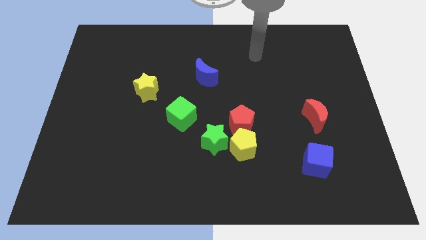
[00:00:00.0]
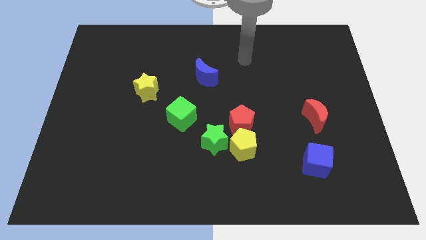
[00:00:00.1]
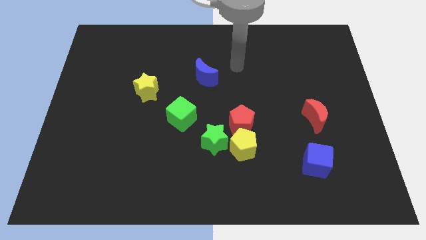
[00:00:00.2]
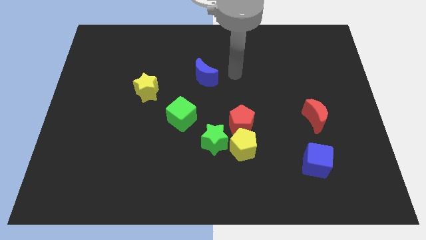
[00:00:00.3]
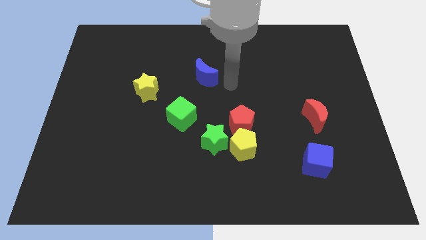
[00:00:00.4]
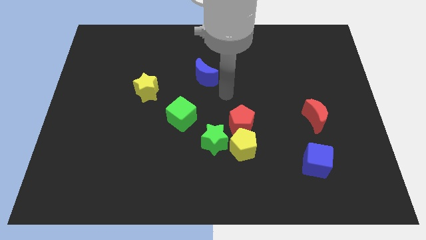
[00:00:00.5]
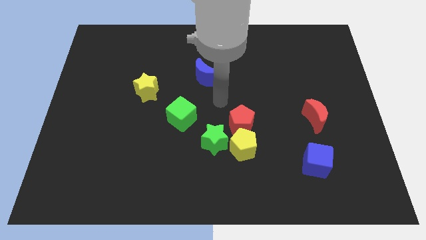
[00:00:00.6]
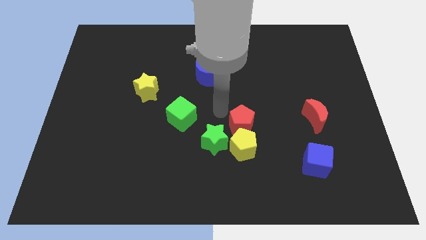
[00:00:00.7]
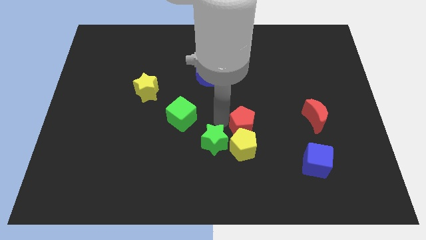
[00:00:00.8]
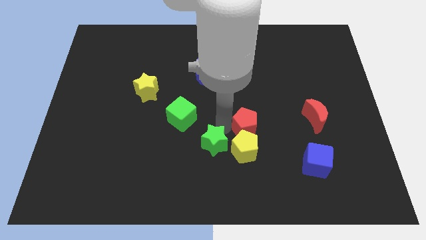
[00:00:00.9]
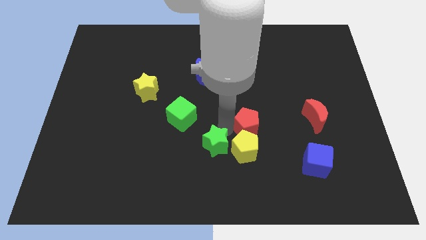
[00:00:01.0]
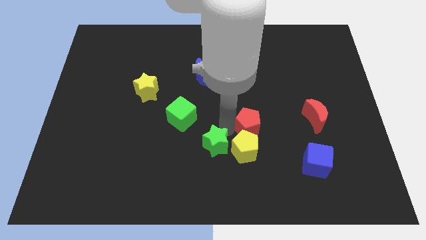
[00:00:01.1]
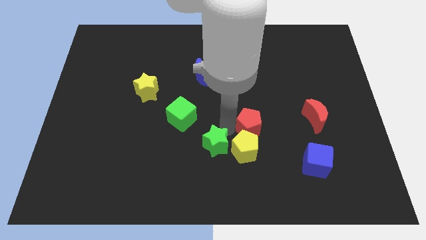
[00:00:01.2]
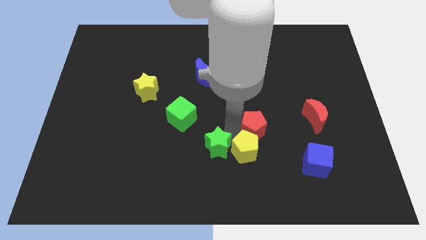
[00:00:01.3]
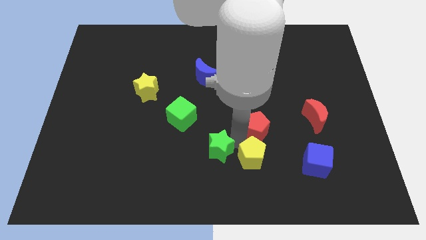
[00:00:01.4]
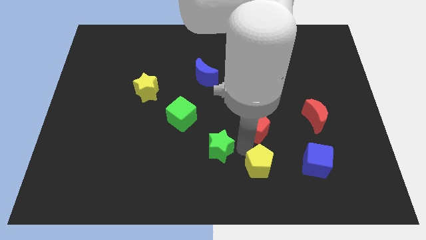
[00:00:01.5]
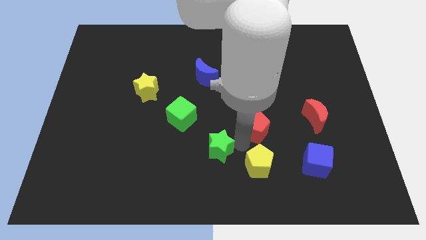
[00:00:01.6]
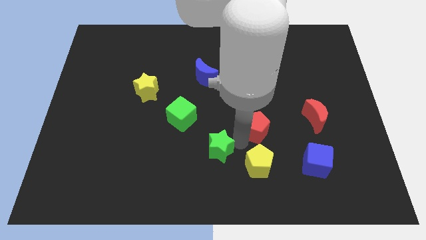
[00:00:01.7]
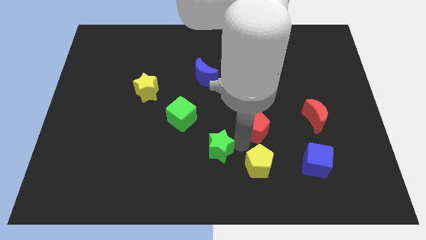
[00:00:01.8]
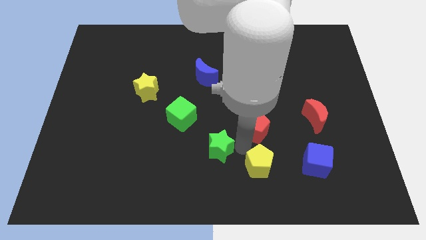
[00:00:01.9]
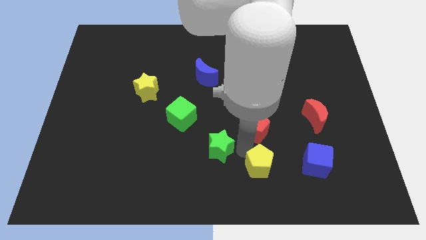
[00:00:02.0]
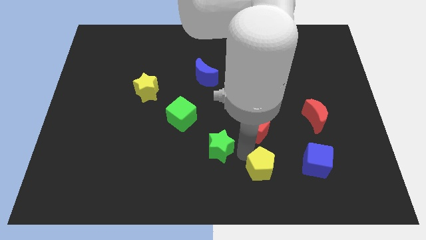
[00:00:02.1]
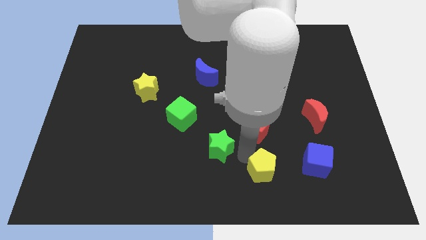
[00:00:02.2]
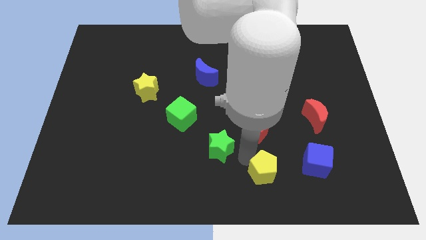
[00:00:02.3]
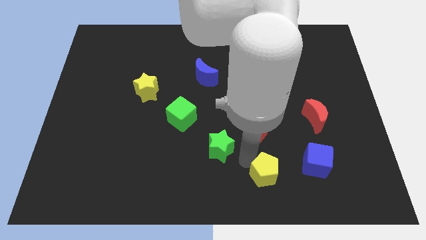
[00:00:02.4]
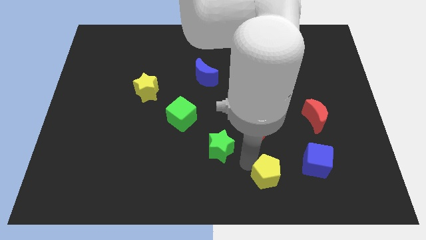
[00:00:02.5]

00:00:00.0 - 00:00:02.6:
pull the yellow pentagon apart from the green star and red pentagon

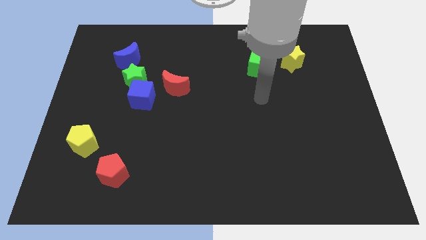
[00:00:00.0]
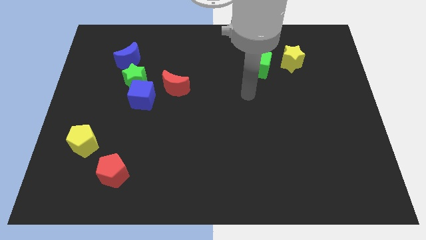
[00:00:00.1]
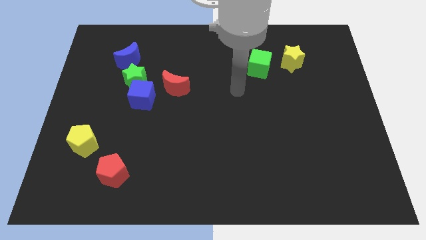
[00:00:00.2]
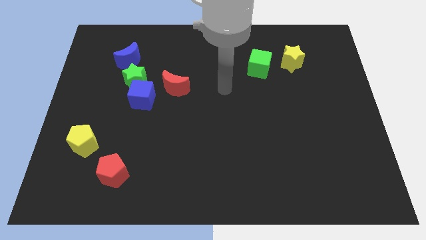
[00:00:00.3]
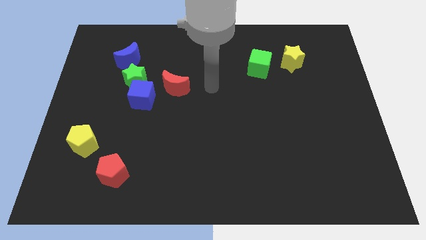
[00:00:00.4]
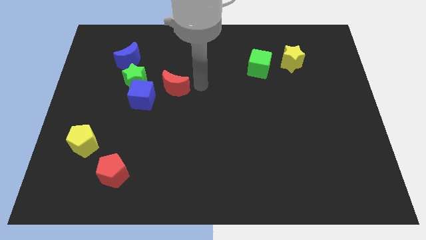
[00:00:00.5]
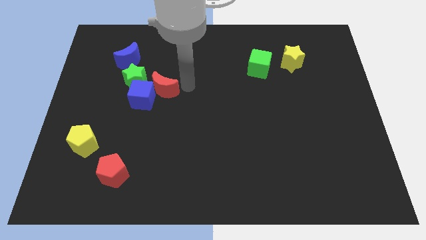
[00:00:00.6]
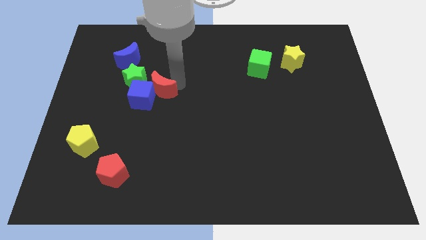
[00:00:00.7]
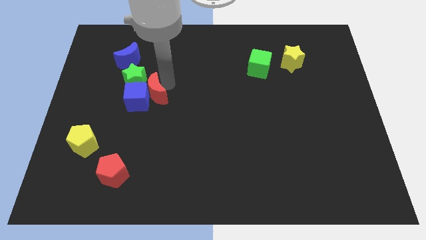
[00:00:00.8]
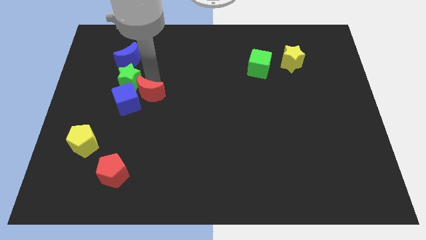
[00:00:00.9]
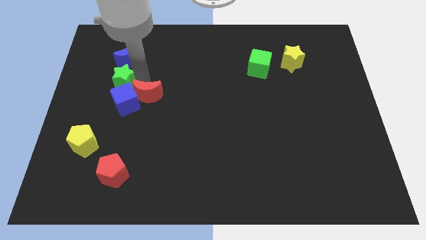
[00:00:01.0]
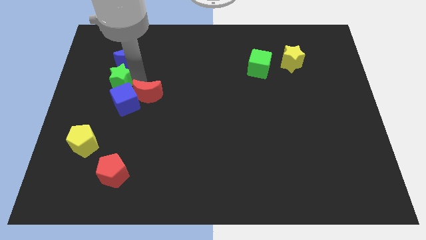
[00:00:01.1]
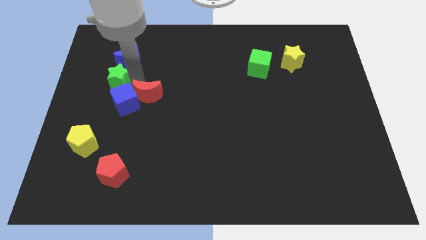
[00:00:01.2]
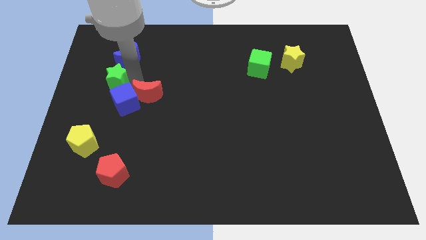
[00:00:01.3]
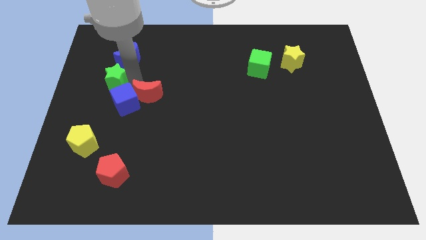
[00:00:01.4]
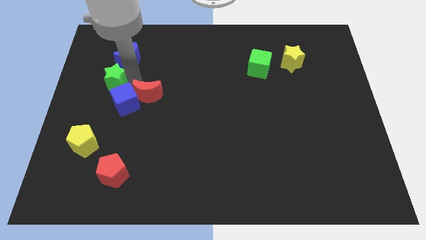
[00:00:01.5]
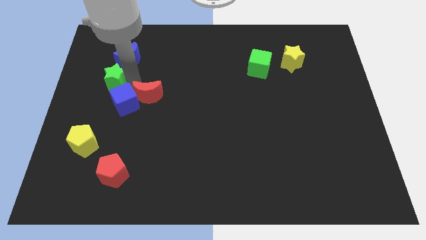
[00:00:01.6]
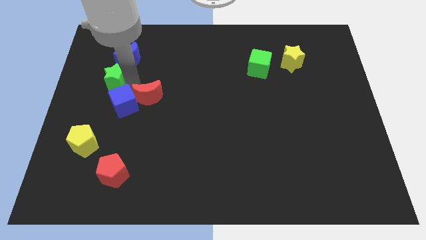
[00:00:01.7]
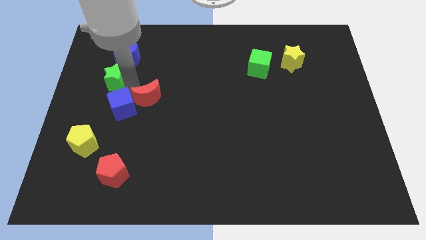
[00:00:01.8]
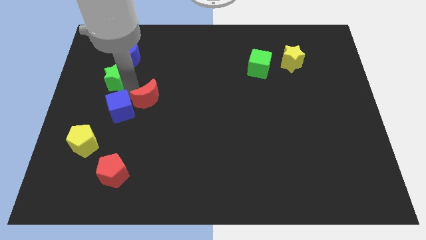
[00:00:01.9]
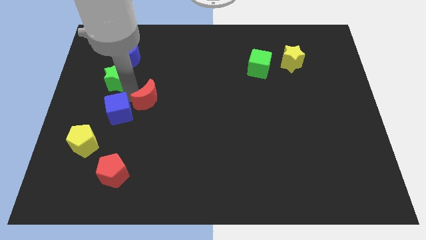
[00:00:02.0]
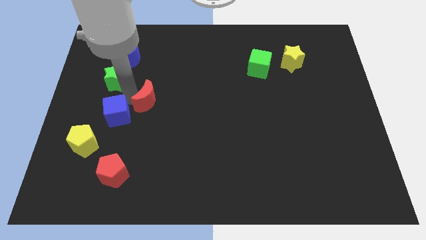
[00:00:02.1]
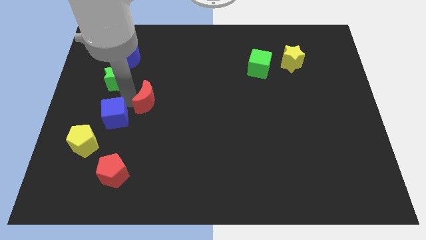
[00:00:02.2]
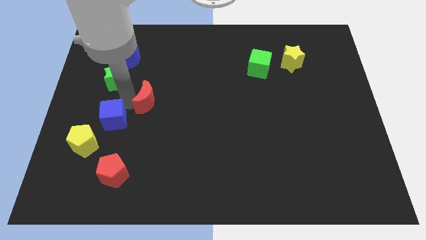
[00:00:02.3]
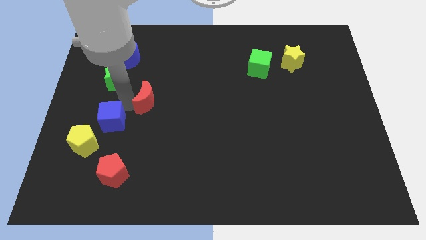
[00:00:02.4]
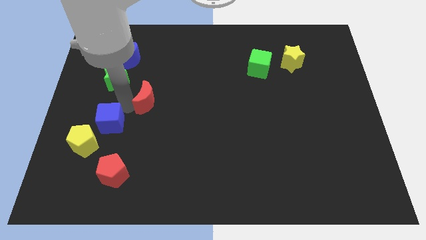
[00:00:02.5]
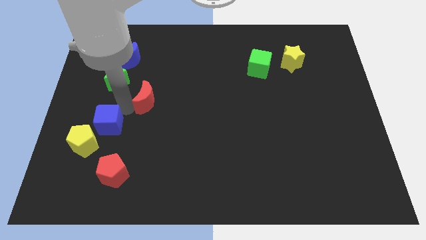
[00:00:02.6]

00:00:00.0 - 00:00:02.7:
move the blue cube away from the green star and red moon

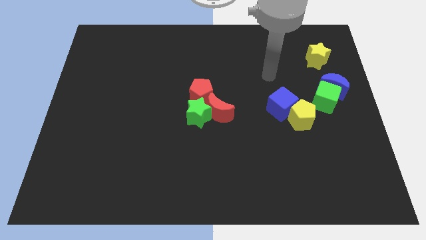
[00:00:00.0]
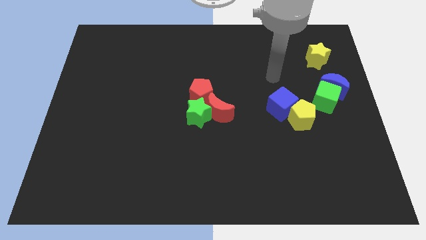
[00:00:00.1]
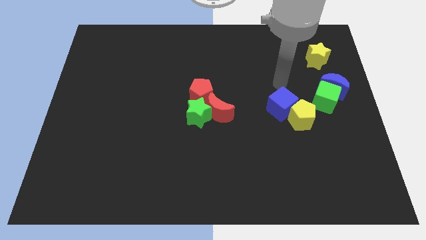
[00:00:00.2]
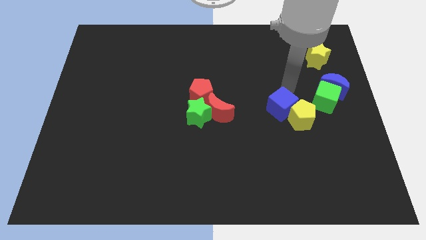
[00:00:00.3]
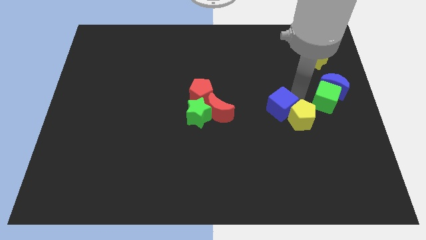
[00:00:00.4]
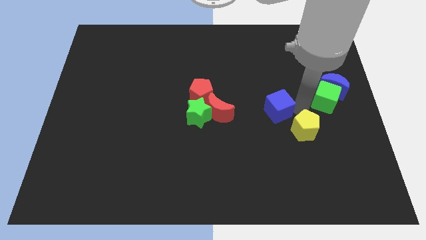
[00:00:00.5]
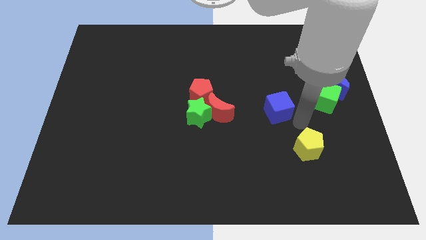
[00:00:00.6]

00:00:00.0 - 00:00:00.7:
separate the blue cube from the yellow pentagon

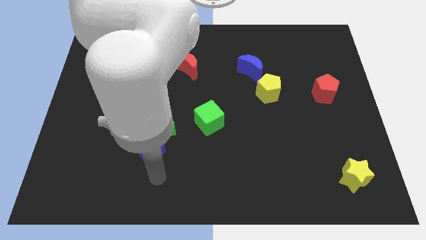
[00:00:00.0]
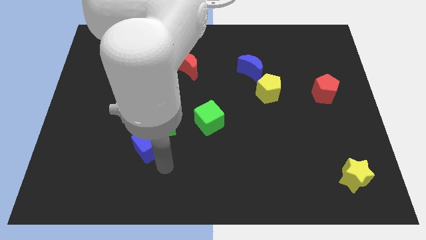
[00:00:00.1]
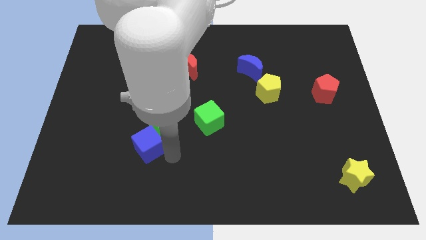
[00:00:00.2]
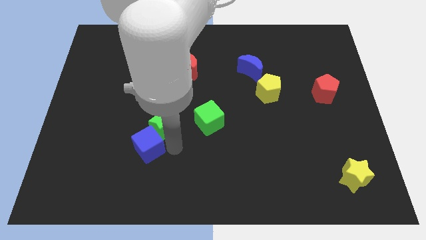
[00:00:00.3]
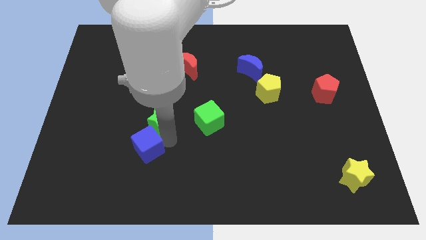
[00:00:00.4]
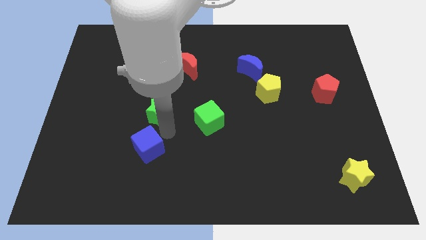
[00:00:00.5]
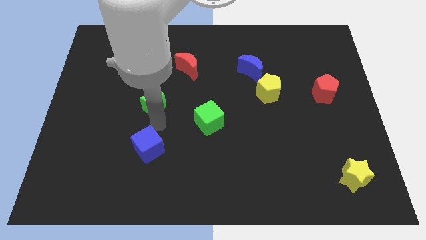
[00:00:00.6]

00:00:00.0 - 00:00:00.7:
pull the blue cube apart from the green star

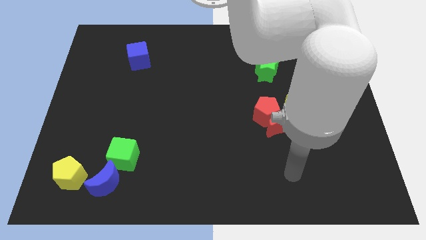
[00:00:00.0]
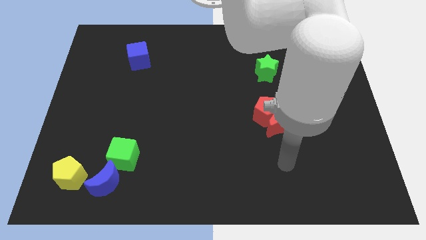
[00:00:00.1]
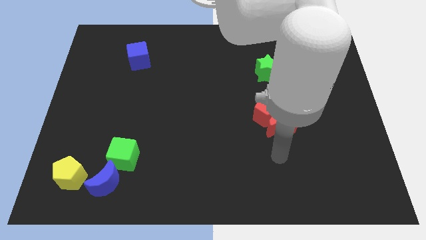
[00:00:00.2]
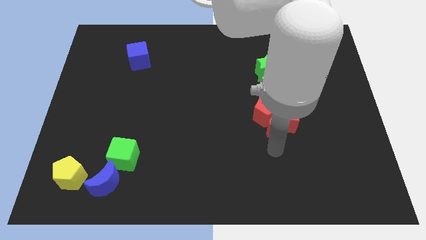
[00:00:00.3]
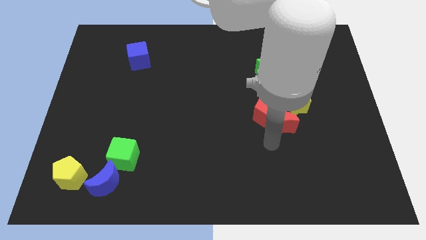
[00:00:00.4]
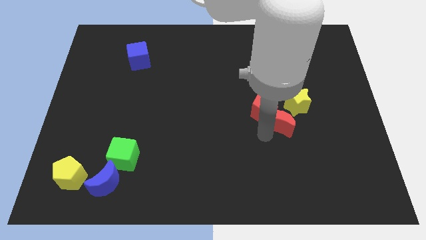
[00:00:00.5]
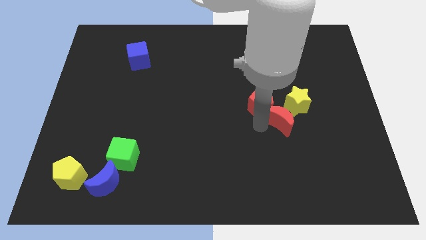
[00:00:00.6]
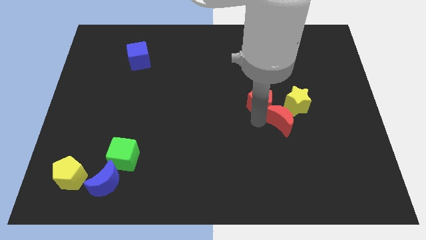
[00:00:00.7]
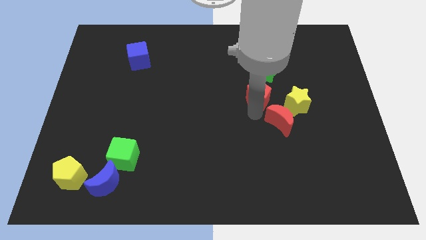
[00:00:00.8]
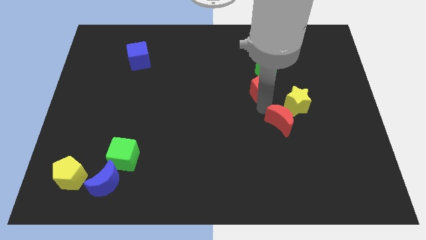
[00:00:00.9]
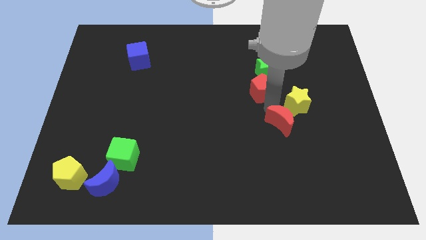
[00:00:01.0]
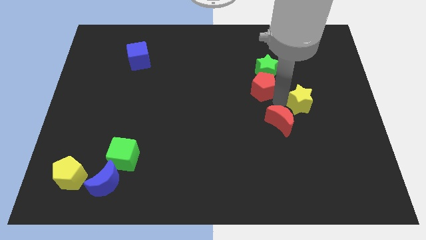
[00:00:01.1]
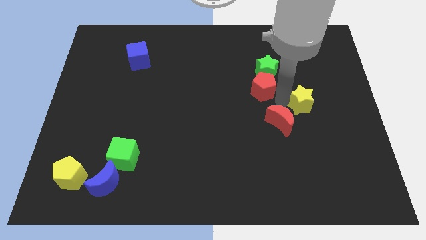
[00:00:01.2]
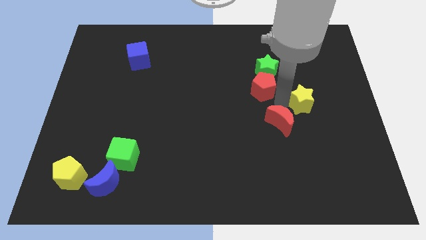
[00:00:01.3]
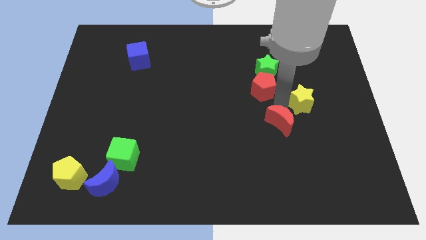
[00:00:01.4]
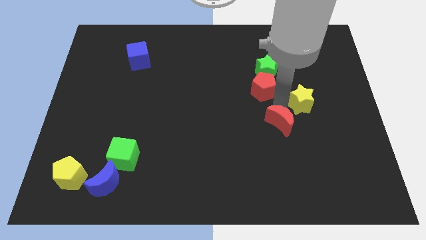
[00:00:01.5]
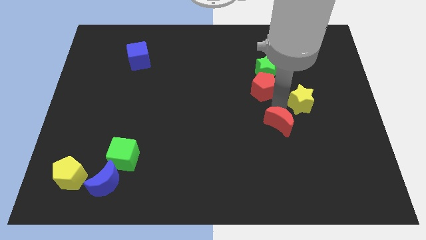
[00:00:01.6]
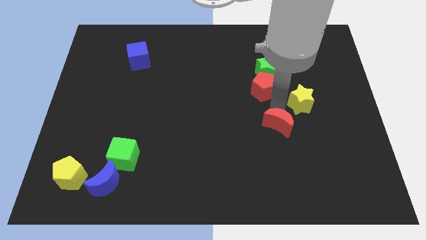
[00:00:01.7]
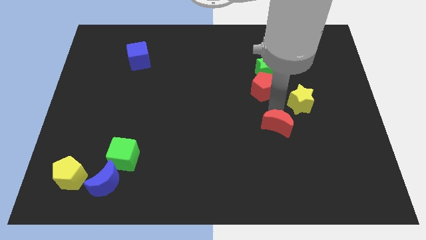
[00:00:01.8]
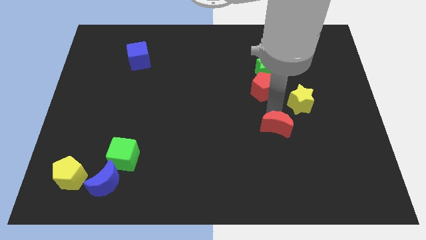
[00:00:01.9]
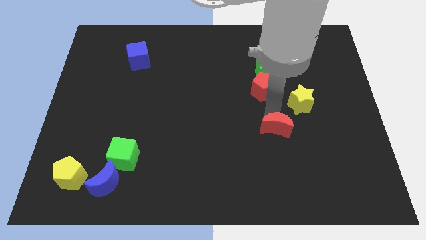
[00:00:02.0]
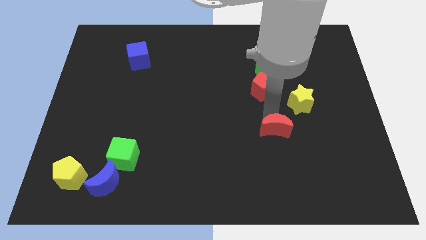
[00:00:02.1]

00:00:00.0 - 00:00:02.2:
pull the red moon apart from the red pentagon and yellow star

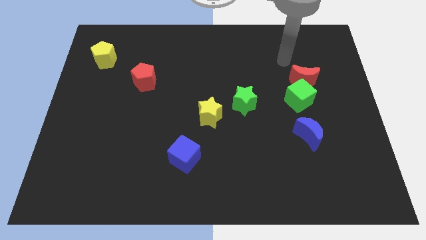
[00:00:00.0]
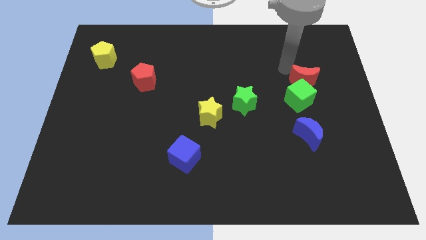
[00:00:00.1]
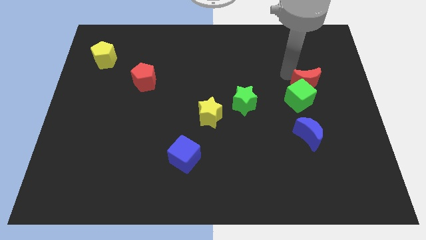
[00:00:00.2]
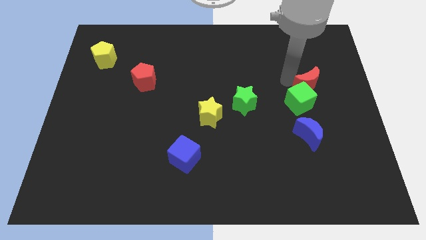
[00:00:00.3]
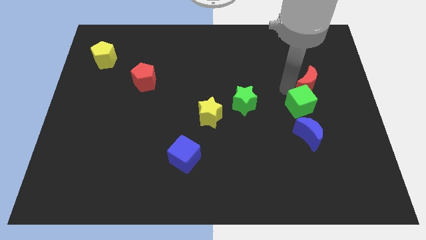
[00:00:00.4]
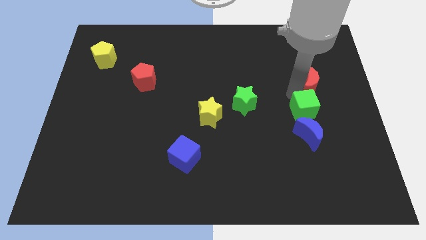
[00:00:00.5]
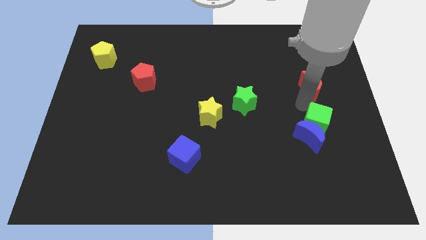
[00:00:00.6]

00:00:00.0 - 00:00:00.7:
pull the red moon apart from the green cube
